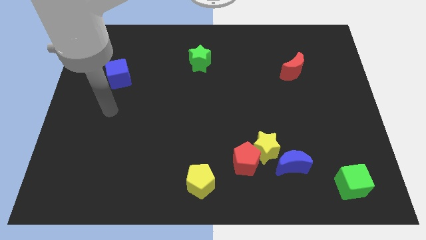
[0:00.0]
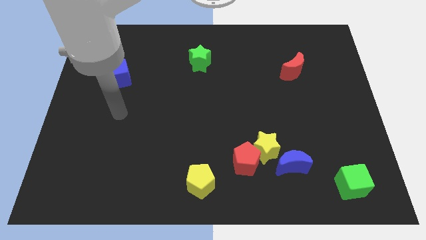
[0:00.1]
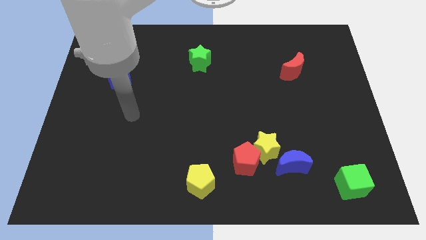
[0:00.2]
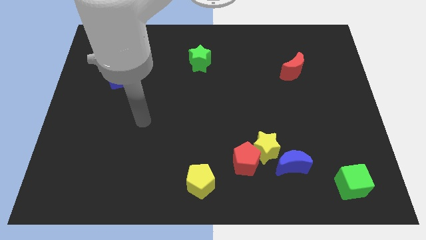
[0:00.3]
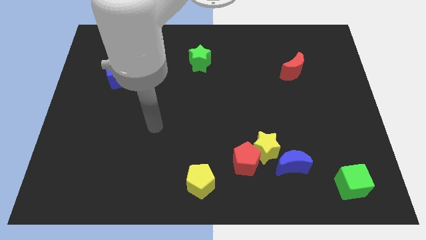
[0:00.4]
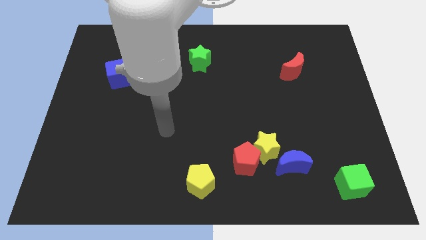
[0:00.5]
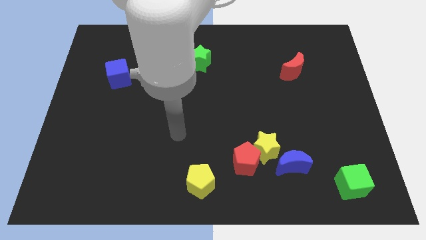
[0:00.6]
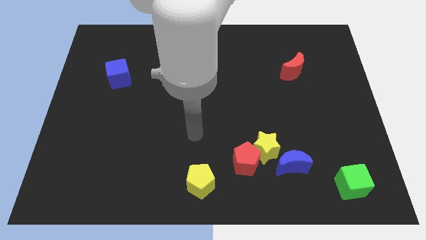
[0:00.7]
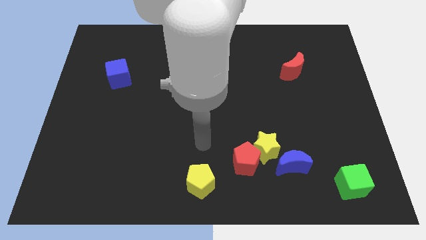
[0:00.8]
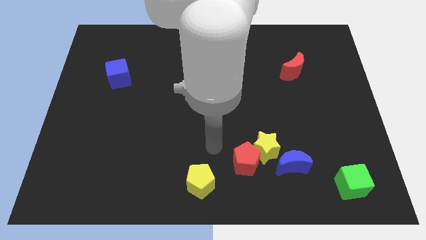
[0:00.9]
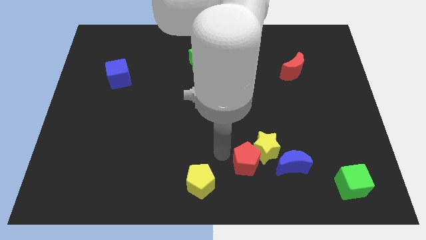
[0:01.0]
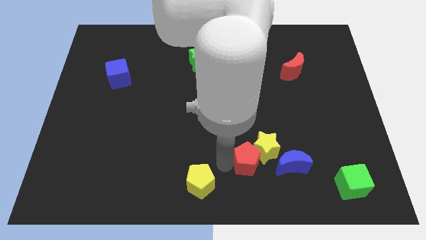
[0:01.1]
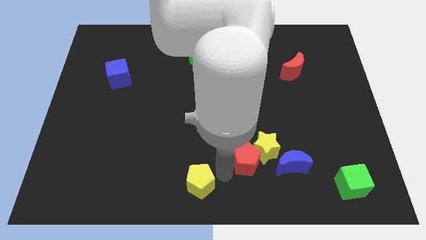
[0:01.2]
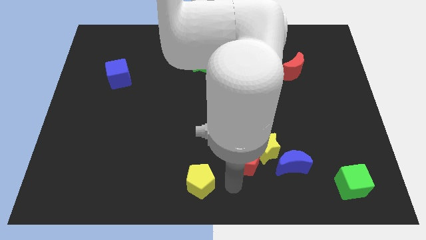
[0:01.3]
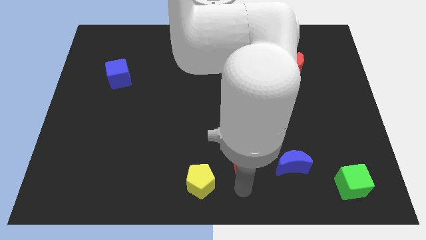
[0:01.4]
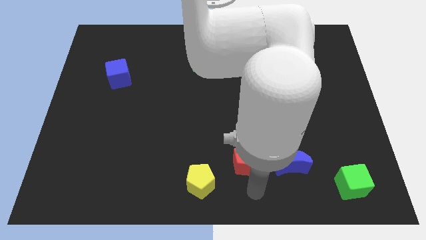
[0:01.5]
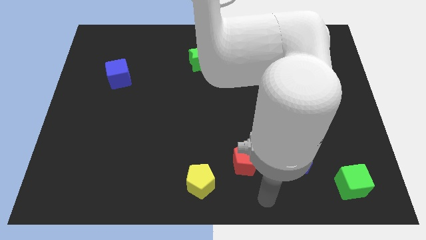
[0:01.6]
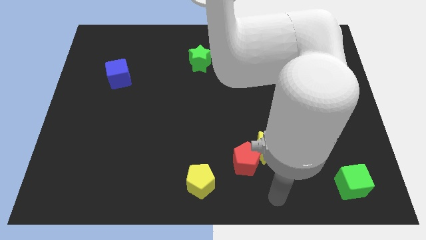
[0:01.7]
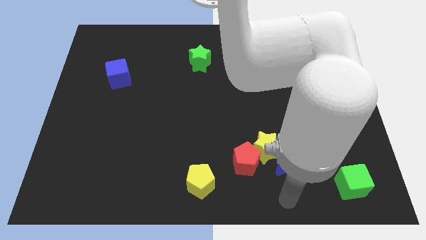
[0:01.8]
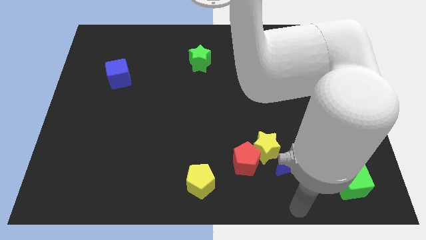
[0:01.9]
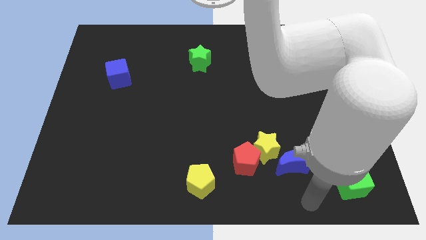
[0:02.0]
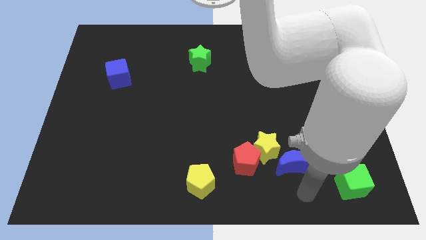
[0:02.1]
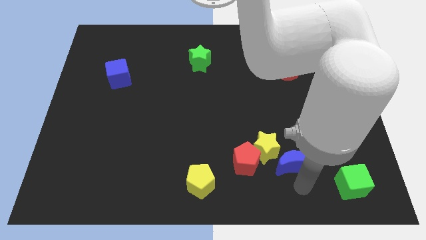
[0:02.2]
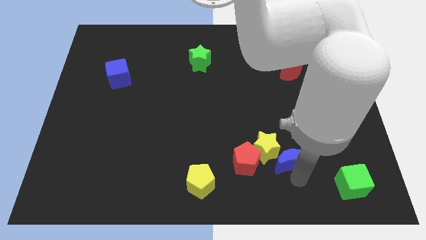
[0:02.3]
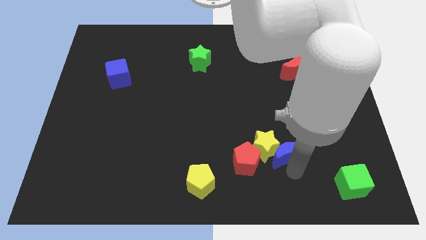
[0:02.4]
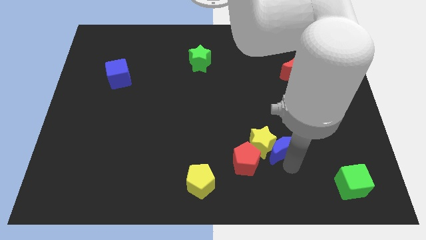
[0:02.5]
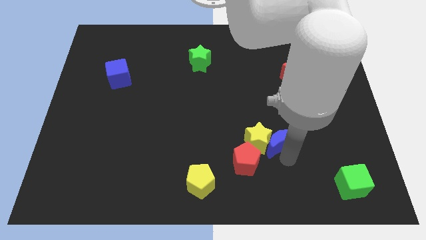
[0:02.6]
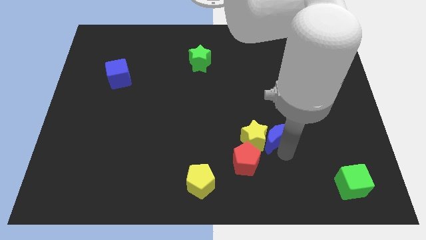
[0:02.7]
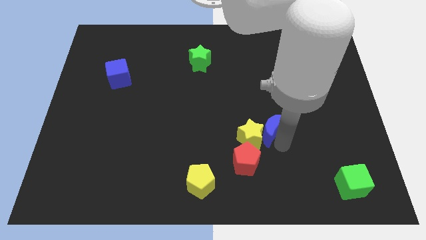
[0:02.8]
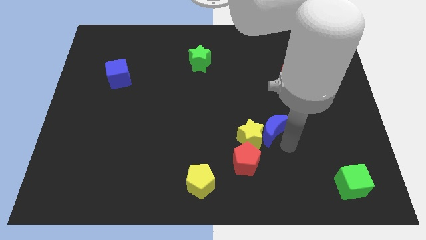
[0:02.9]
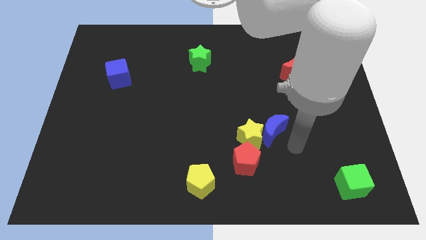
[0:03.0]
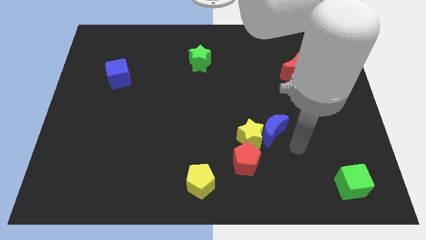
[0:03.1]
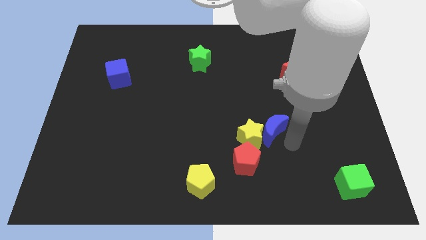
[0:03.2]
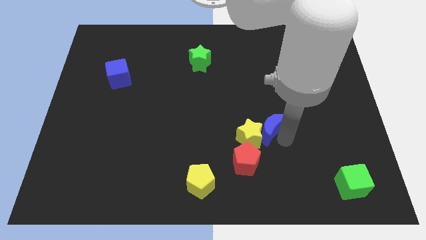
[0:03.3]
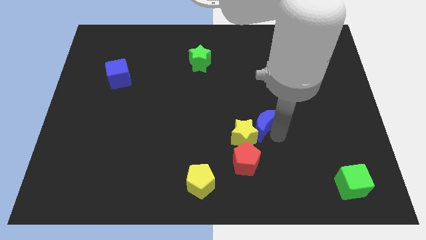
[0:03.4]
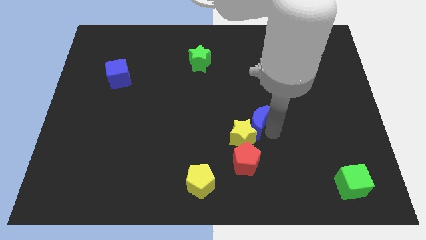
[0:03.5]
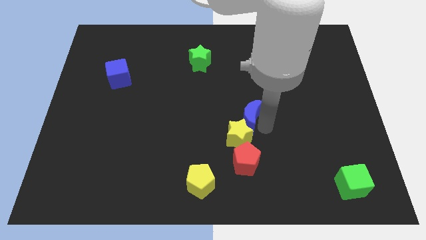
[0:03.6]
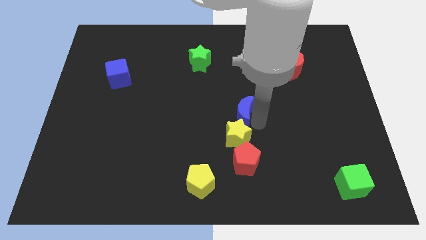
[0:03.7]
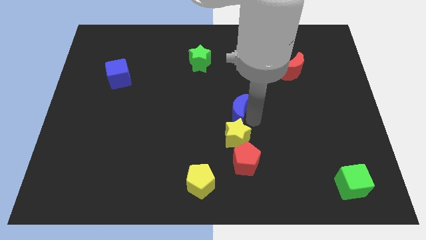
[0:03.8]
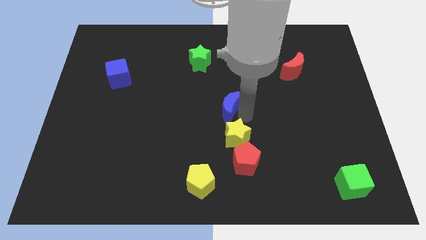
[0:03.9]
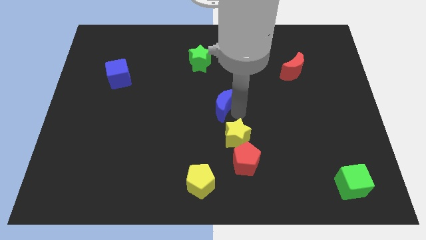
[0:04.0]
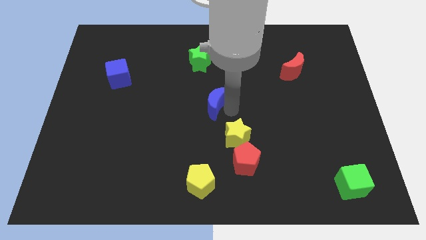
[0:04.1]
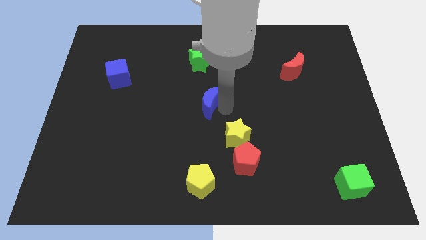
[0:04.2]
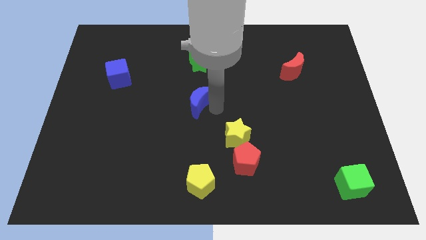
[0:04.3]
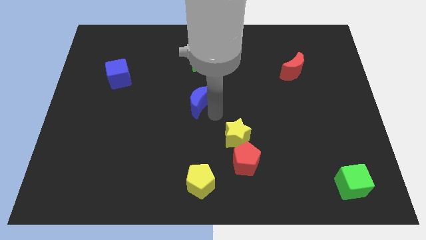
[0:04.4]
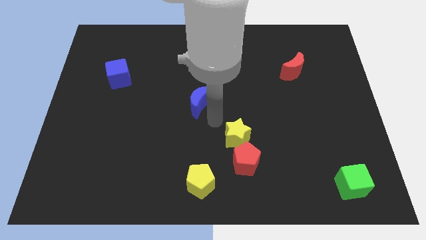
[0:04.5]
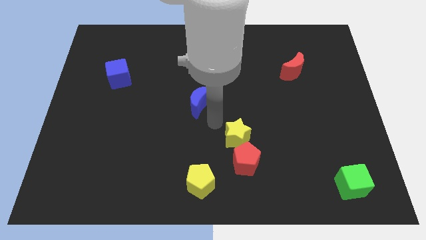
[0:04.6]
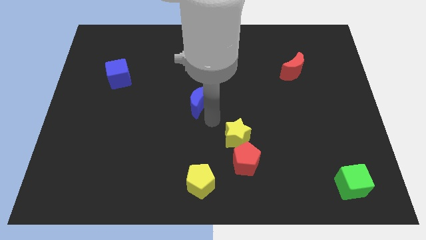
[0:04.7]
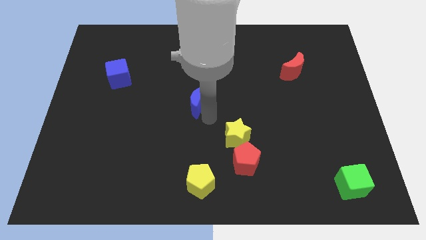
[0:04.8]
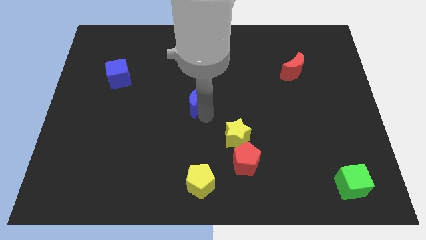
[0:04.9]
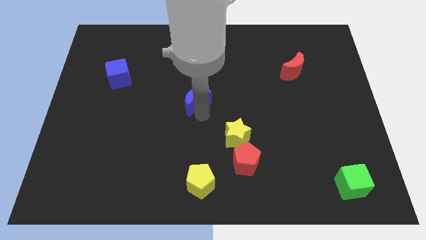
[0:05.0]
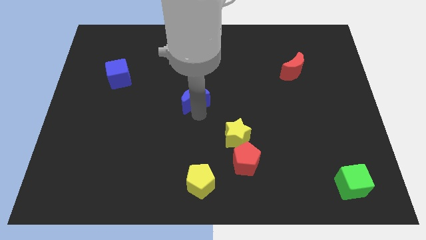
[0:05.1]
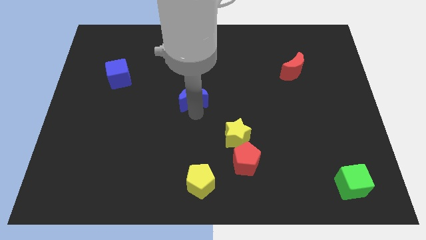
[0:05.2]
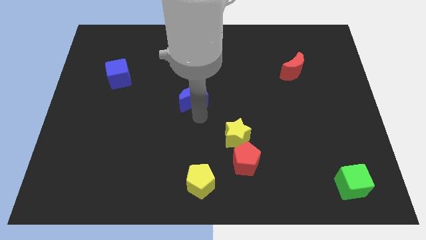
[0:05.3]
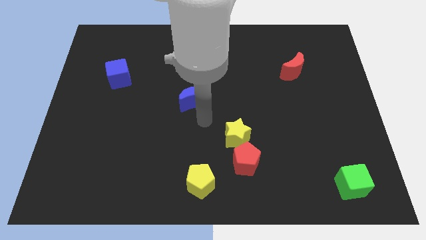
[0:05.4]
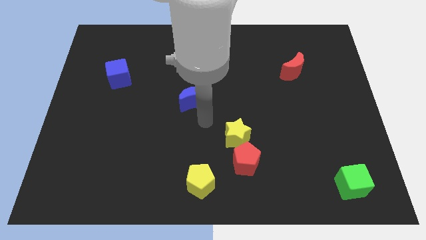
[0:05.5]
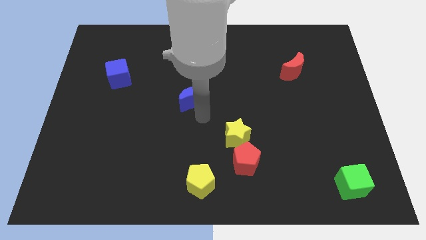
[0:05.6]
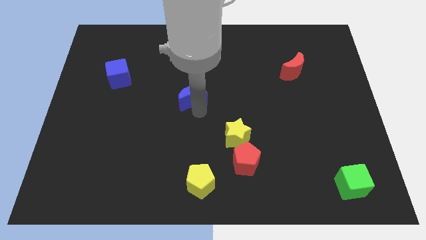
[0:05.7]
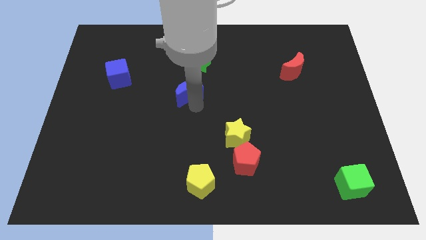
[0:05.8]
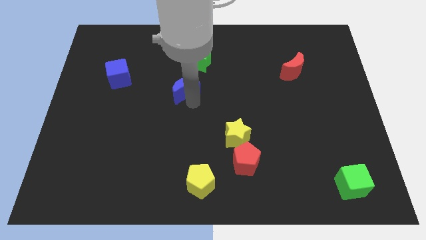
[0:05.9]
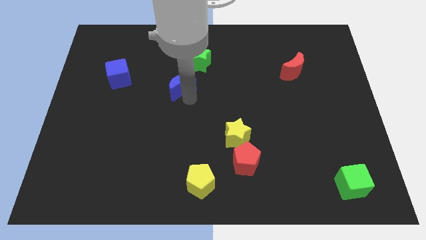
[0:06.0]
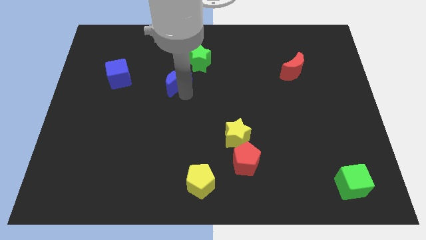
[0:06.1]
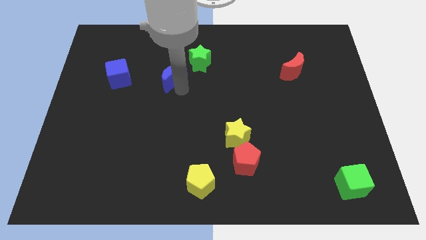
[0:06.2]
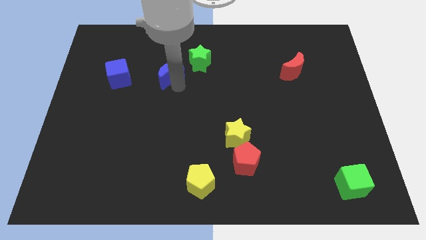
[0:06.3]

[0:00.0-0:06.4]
move the blue moon just left of the green star

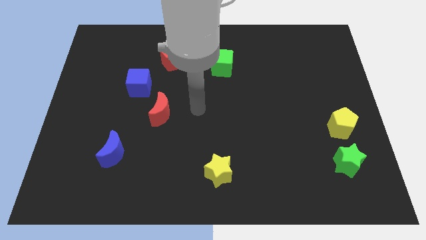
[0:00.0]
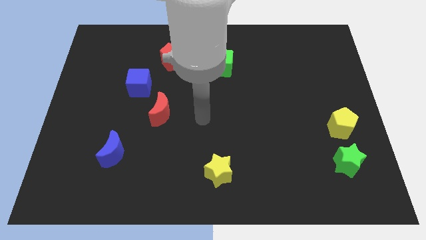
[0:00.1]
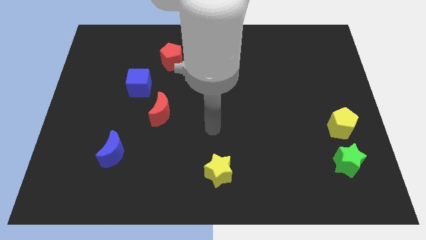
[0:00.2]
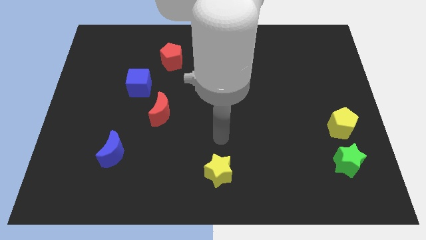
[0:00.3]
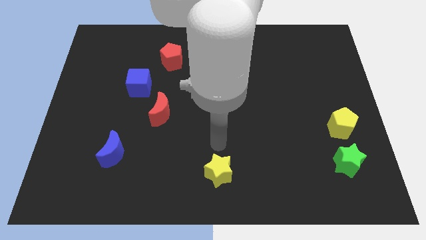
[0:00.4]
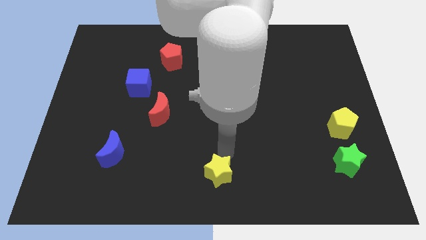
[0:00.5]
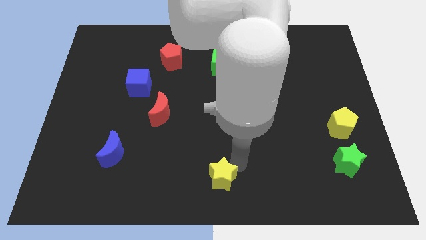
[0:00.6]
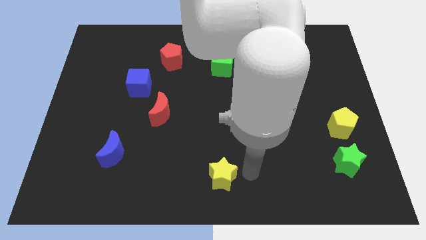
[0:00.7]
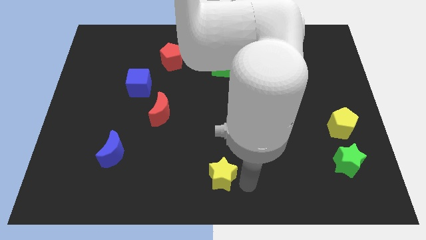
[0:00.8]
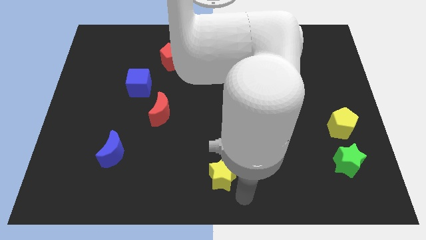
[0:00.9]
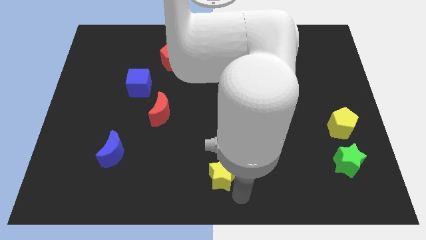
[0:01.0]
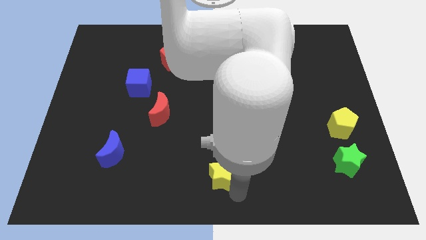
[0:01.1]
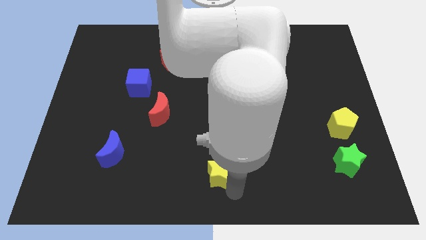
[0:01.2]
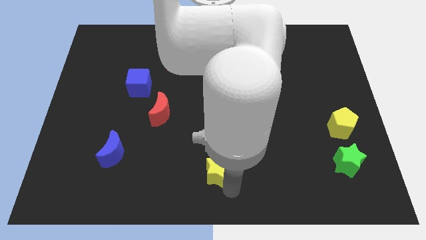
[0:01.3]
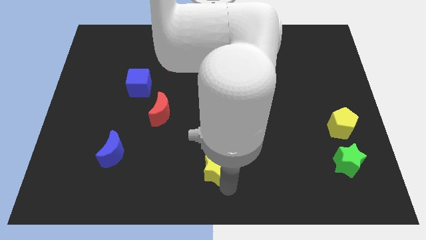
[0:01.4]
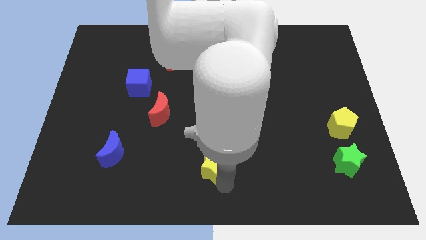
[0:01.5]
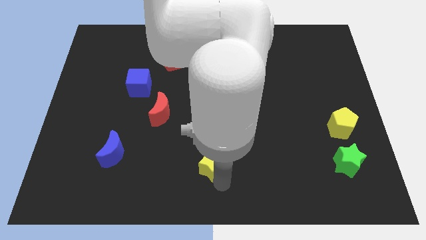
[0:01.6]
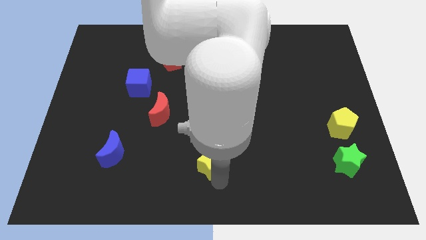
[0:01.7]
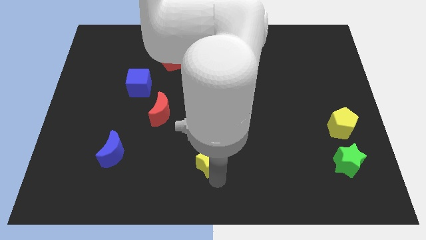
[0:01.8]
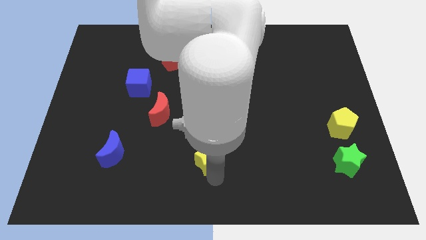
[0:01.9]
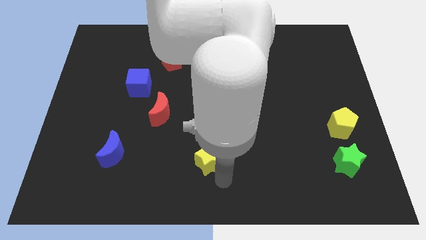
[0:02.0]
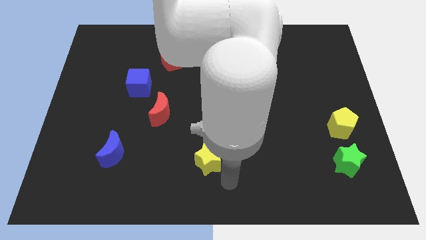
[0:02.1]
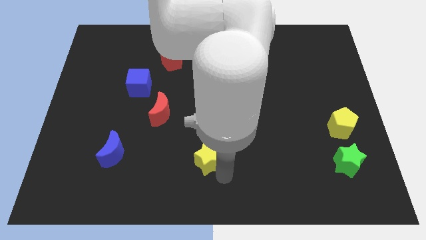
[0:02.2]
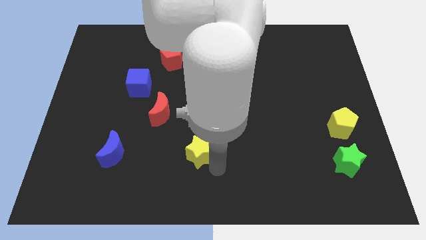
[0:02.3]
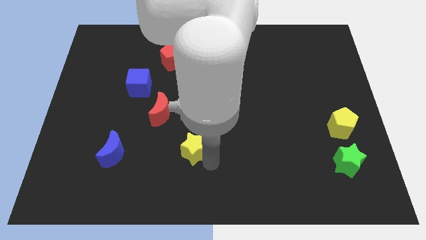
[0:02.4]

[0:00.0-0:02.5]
push the yellow star to the bottom right side of the red moon
